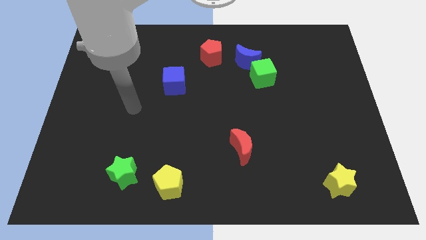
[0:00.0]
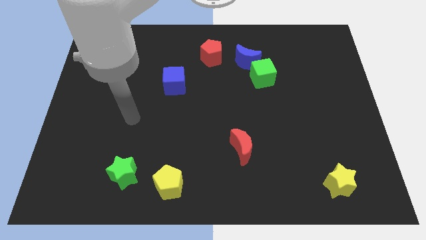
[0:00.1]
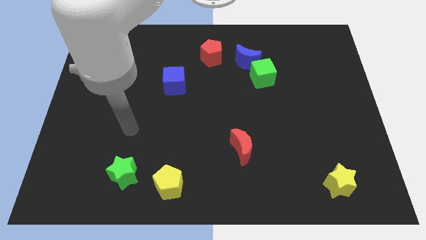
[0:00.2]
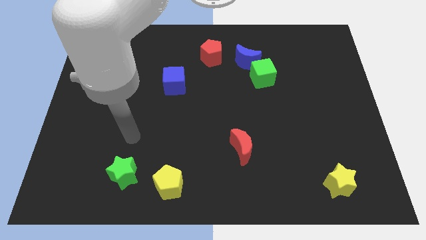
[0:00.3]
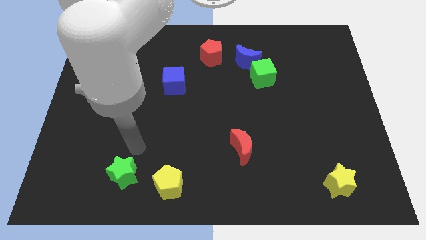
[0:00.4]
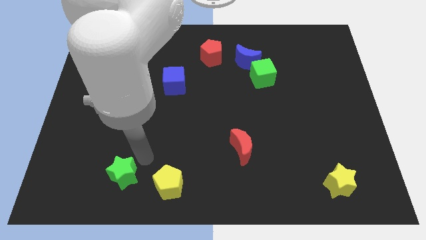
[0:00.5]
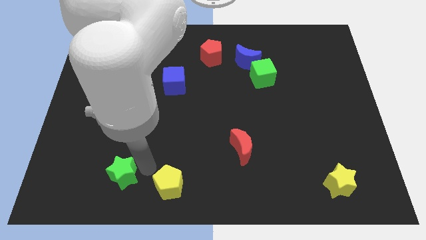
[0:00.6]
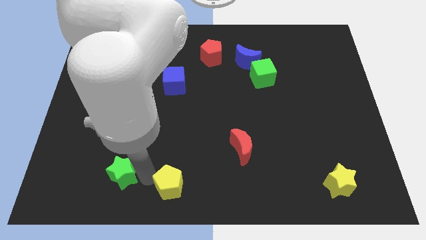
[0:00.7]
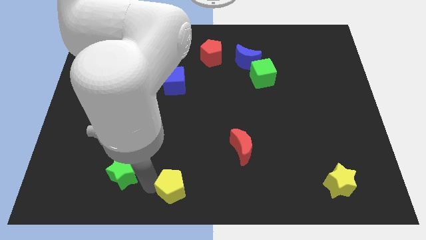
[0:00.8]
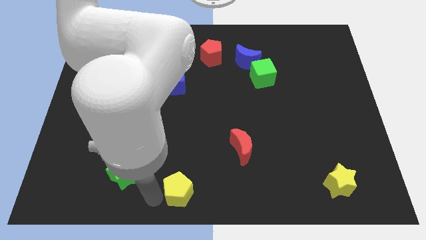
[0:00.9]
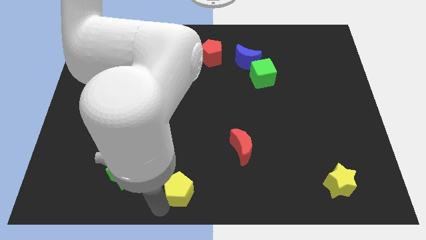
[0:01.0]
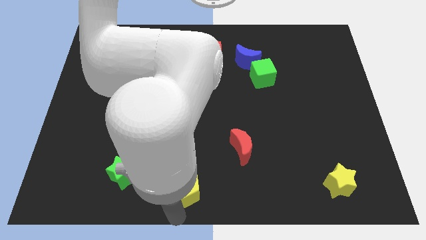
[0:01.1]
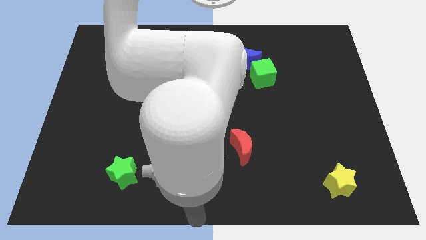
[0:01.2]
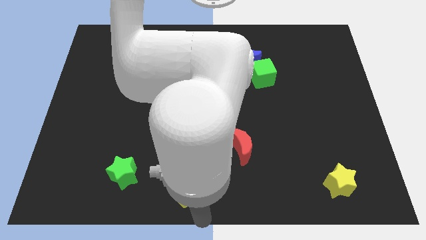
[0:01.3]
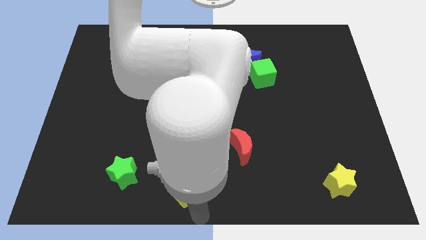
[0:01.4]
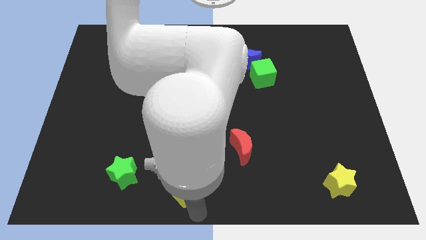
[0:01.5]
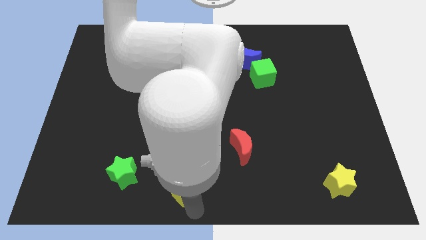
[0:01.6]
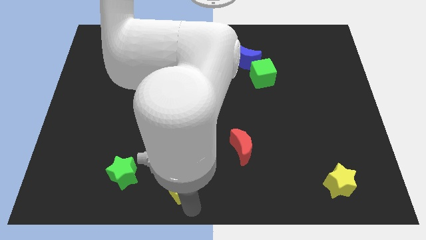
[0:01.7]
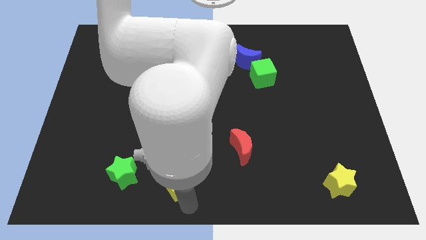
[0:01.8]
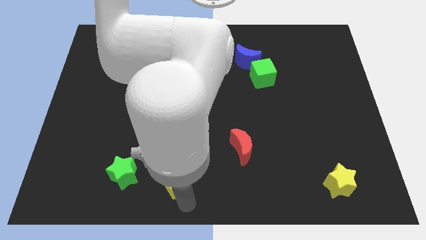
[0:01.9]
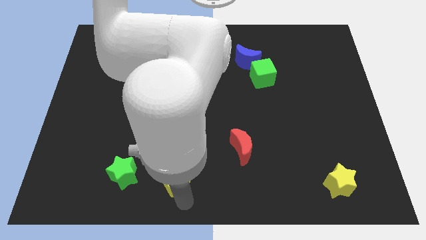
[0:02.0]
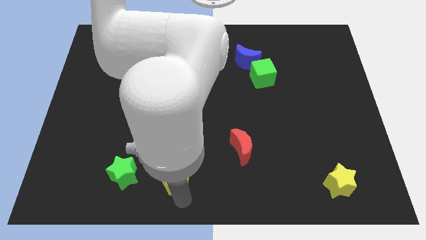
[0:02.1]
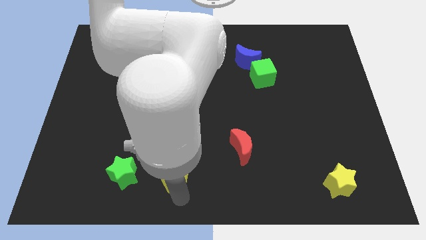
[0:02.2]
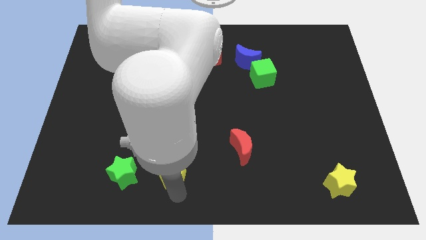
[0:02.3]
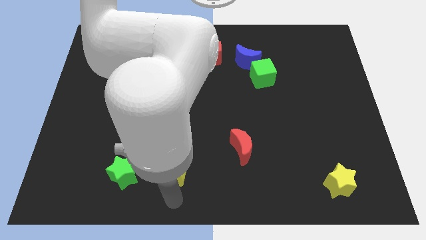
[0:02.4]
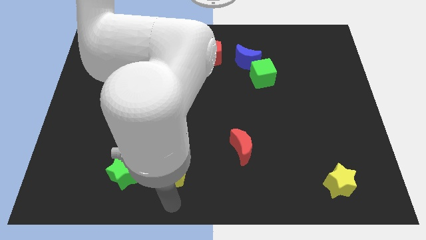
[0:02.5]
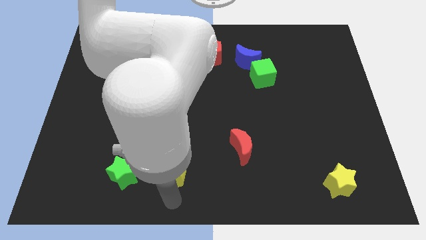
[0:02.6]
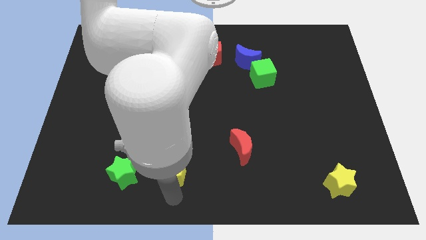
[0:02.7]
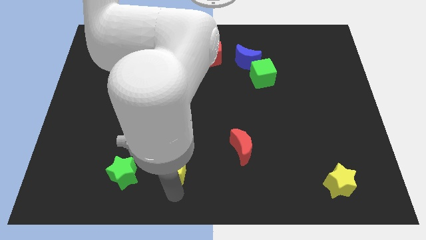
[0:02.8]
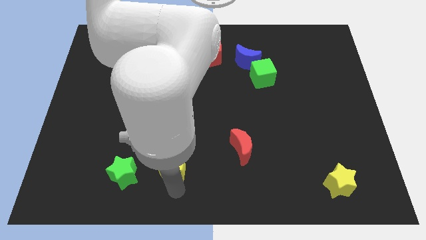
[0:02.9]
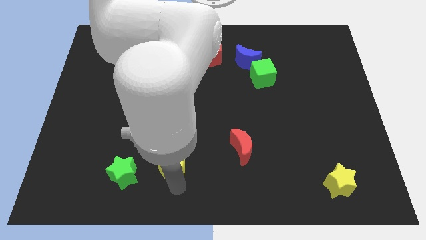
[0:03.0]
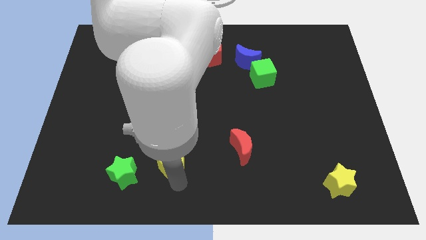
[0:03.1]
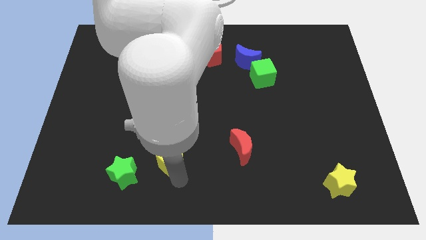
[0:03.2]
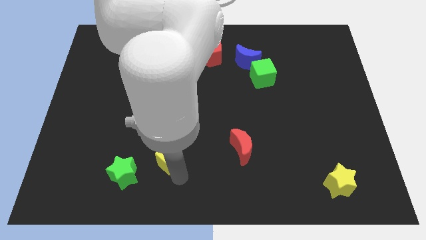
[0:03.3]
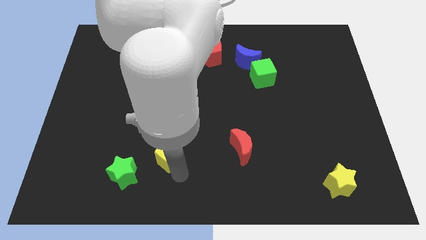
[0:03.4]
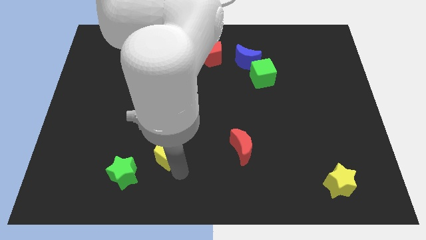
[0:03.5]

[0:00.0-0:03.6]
move the yellow pentagon up somewhat

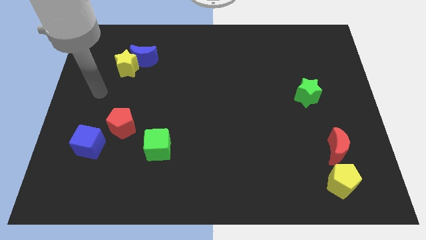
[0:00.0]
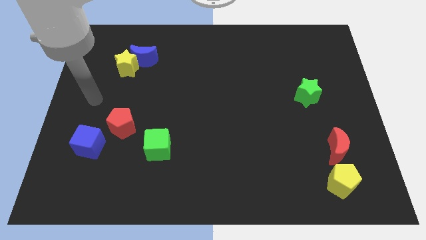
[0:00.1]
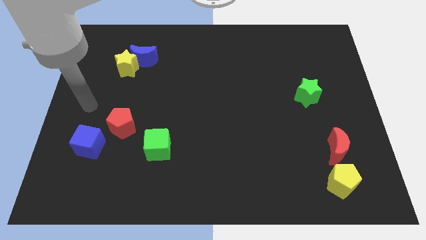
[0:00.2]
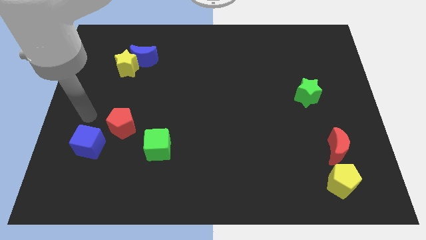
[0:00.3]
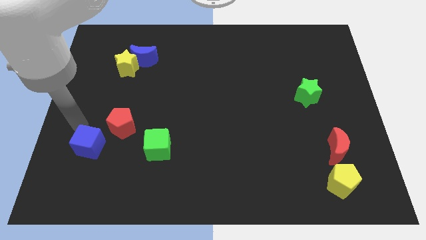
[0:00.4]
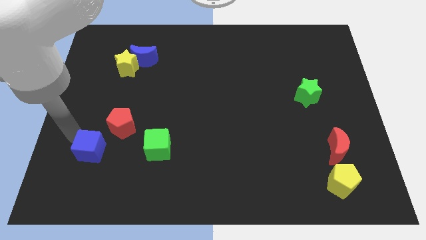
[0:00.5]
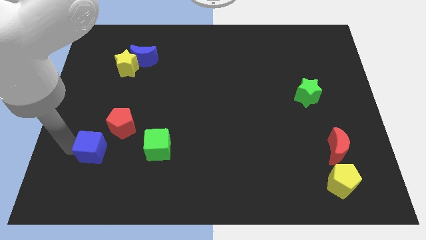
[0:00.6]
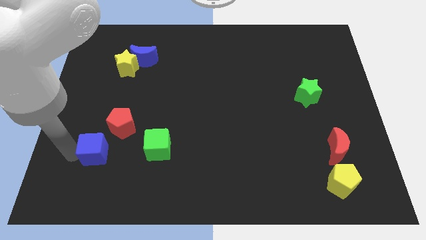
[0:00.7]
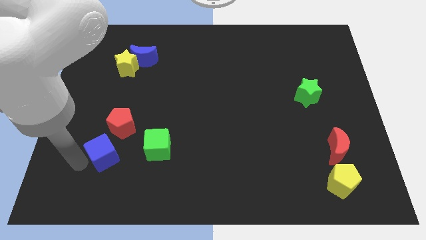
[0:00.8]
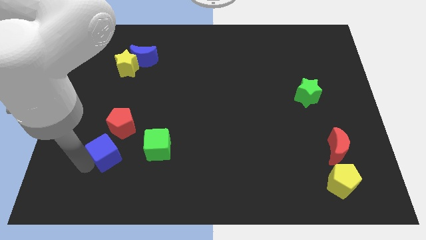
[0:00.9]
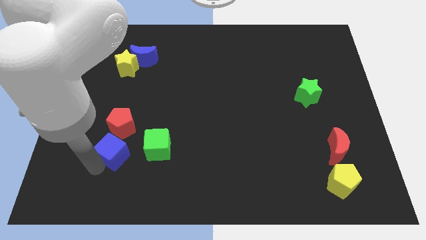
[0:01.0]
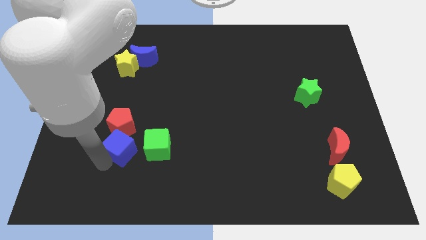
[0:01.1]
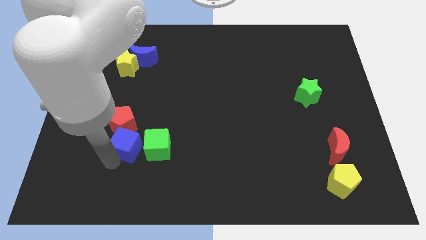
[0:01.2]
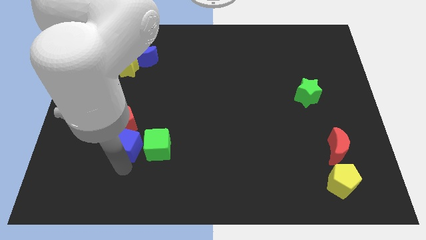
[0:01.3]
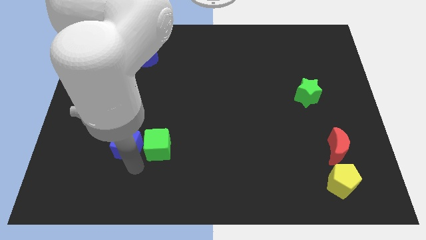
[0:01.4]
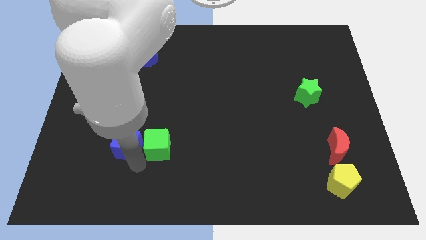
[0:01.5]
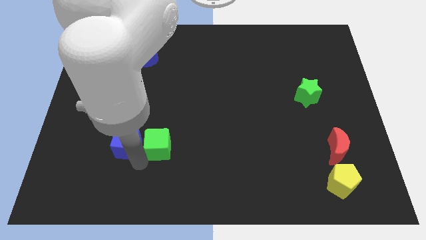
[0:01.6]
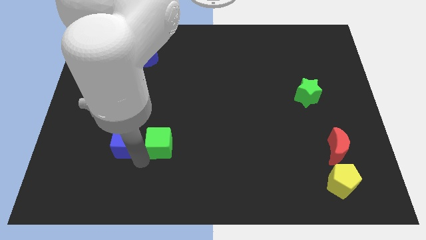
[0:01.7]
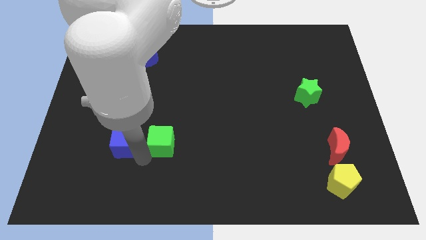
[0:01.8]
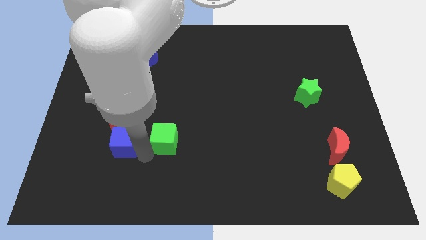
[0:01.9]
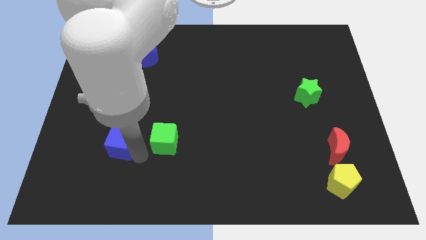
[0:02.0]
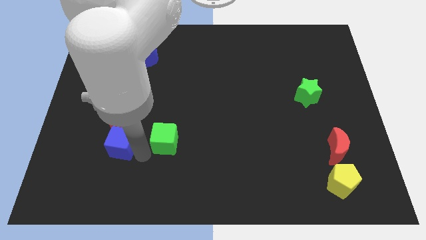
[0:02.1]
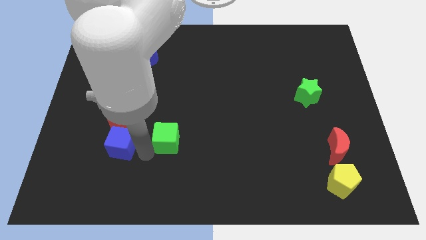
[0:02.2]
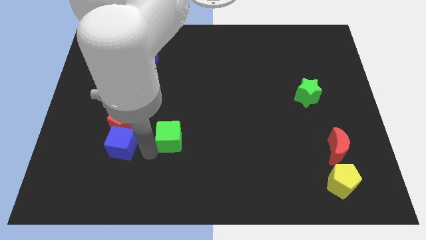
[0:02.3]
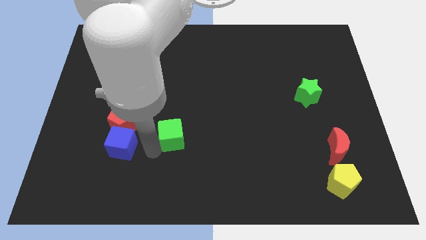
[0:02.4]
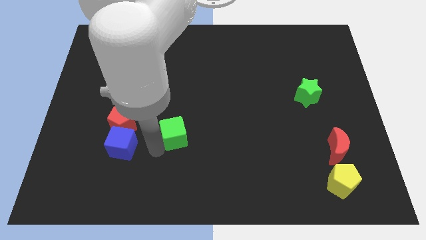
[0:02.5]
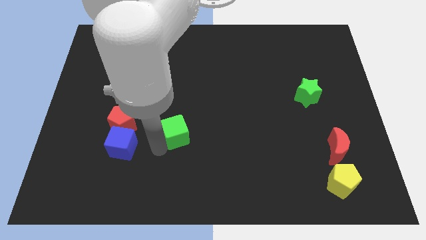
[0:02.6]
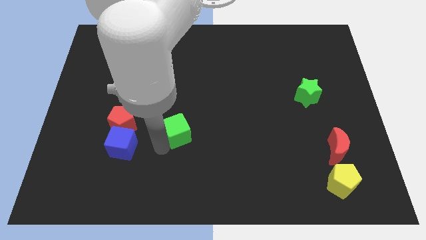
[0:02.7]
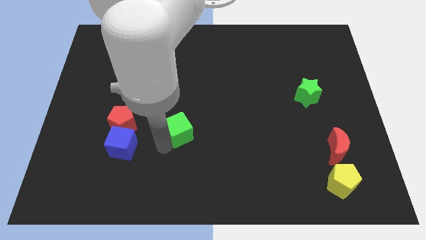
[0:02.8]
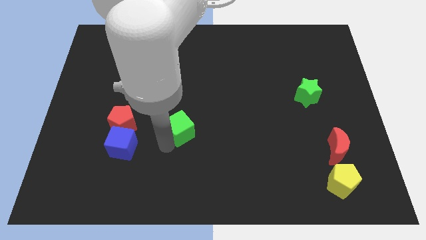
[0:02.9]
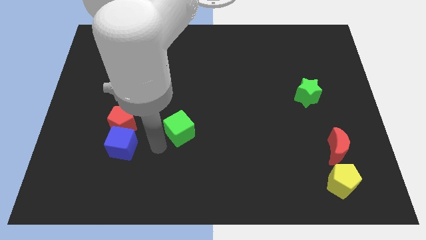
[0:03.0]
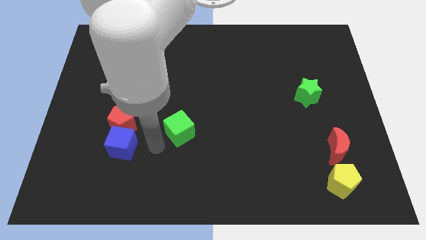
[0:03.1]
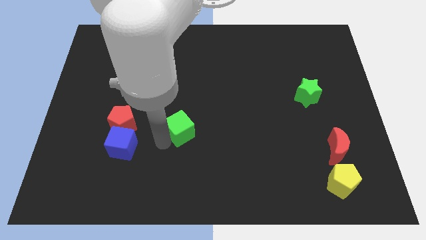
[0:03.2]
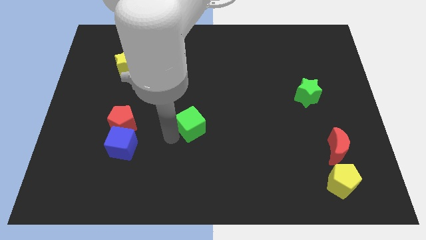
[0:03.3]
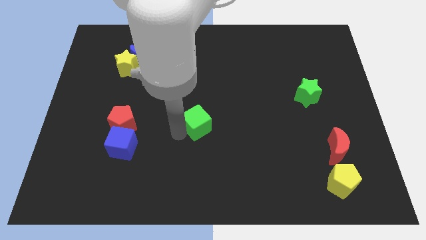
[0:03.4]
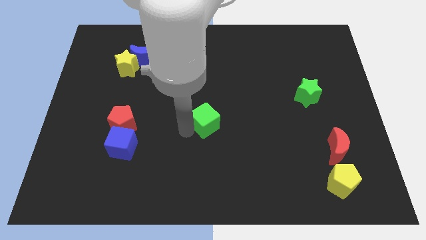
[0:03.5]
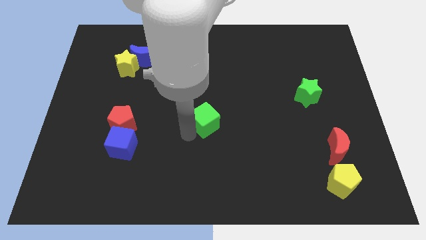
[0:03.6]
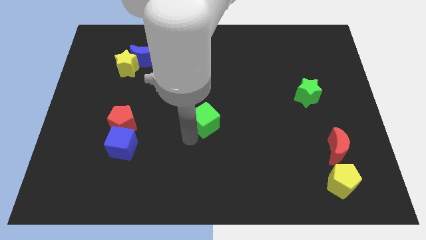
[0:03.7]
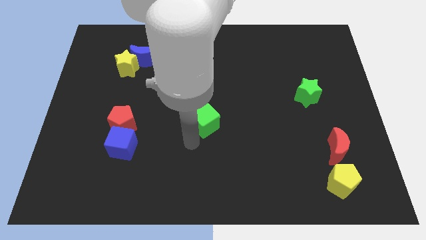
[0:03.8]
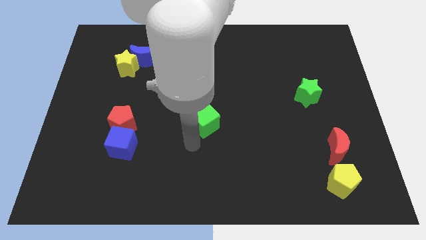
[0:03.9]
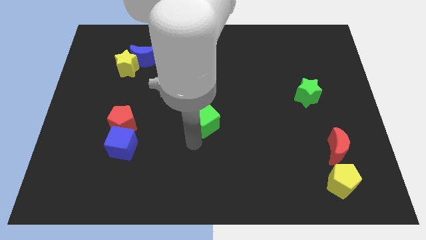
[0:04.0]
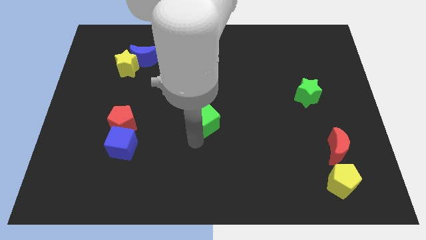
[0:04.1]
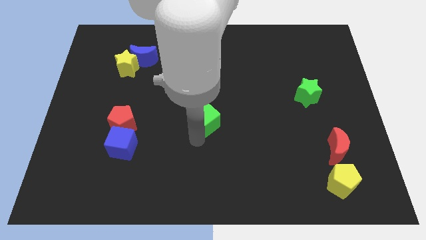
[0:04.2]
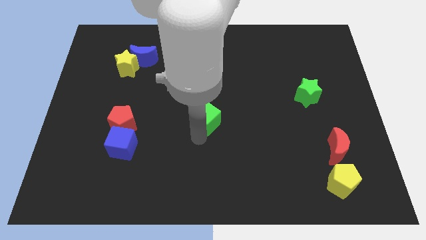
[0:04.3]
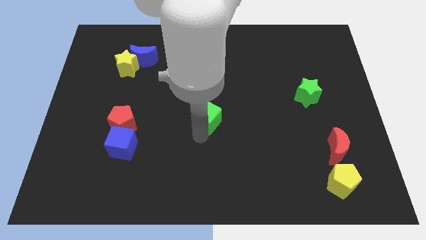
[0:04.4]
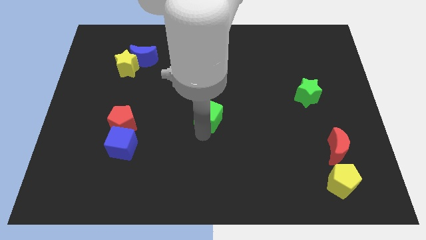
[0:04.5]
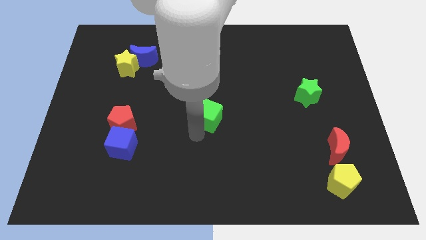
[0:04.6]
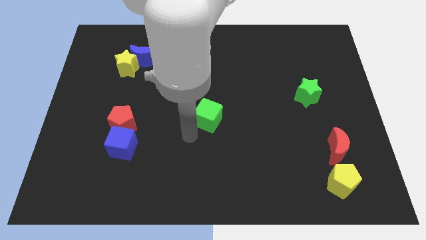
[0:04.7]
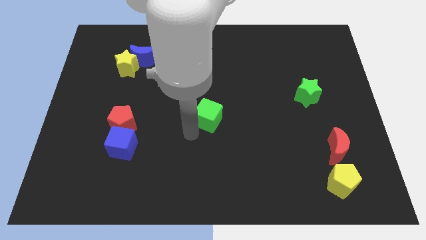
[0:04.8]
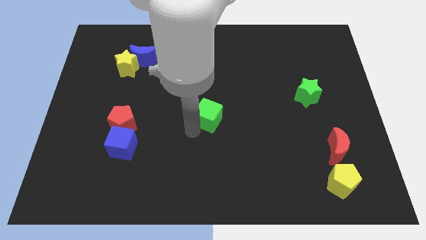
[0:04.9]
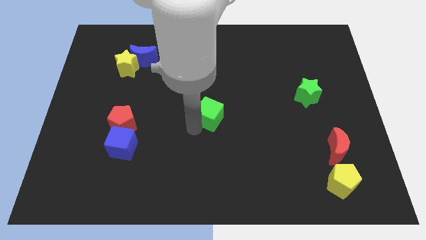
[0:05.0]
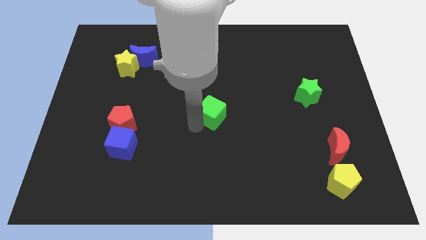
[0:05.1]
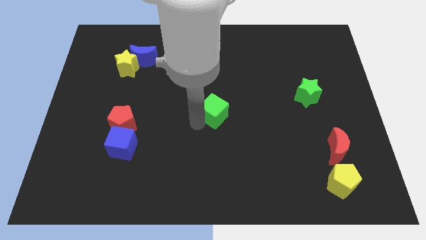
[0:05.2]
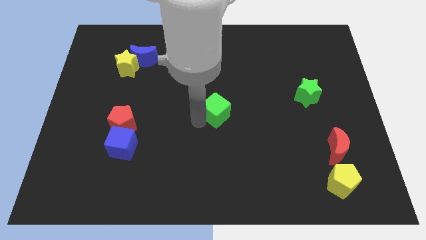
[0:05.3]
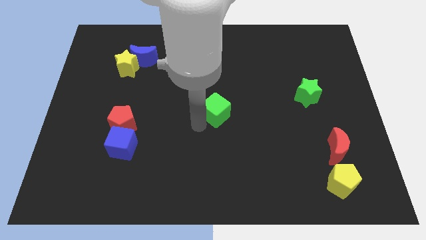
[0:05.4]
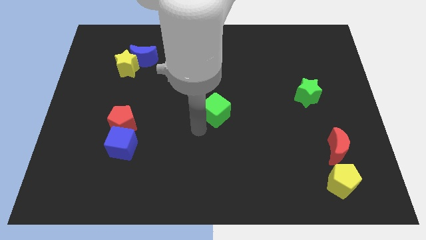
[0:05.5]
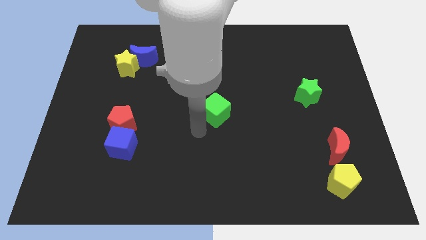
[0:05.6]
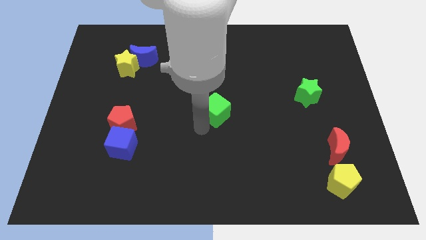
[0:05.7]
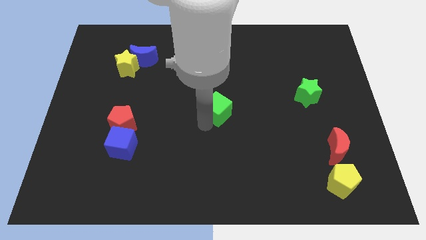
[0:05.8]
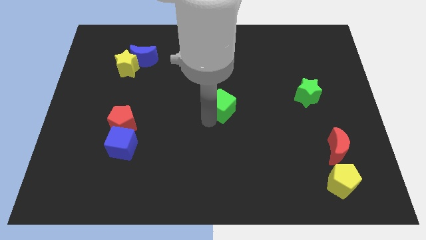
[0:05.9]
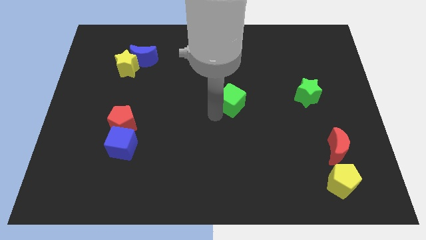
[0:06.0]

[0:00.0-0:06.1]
move the green cube diagonally upwards and right
